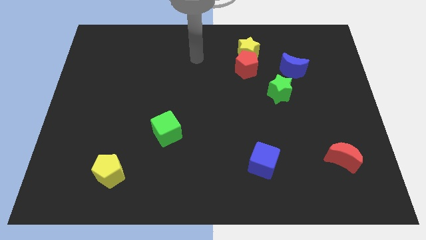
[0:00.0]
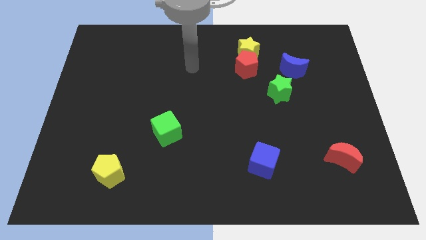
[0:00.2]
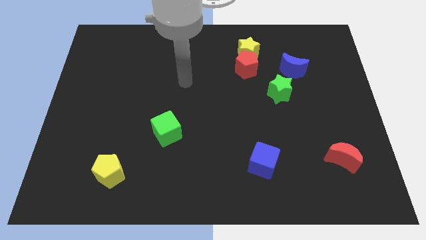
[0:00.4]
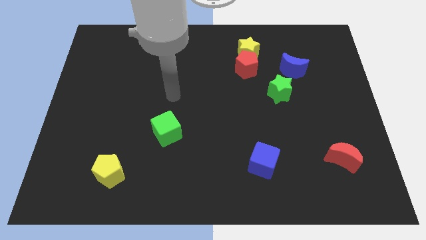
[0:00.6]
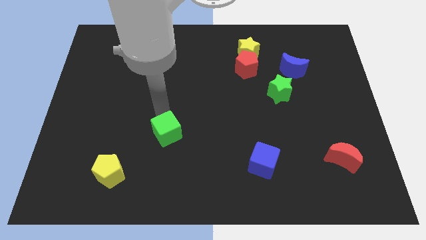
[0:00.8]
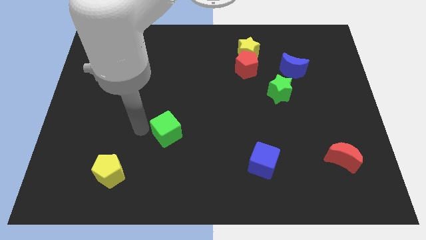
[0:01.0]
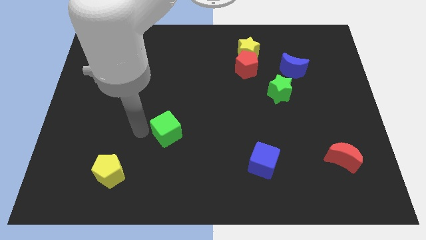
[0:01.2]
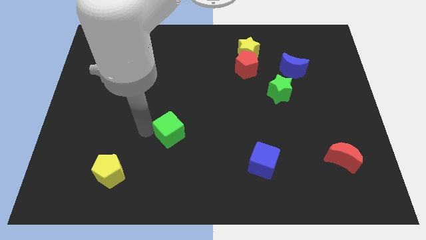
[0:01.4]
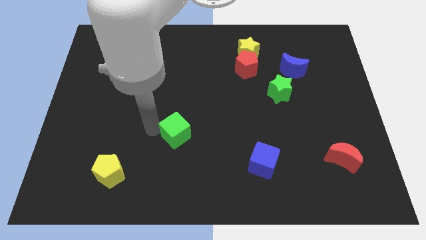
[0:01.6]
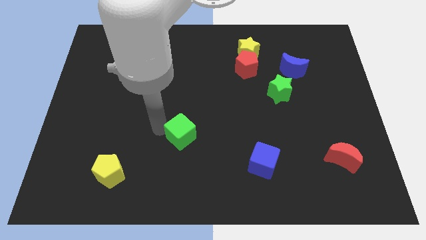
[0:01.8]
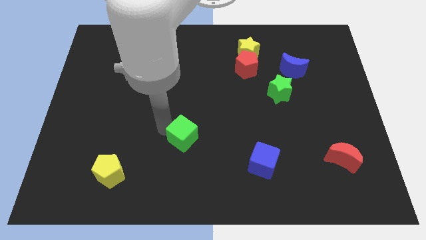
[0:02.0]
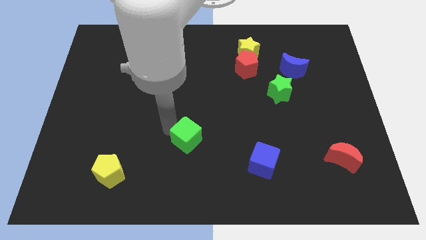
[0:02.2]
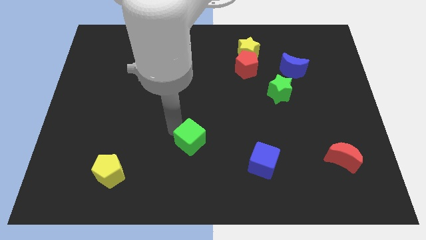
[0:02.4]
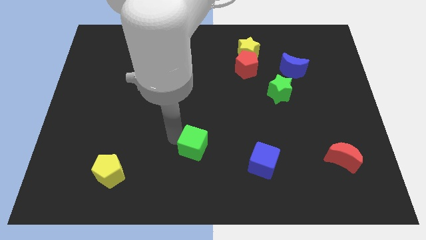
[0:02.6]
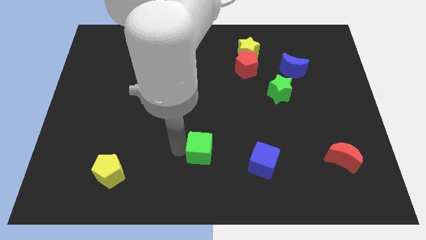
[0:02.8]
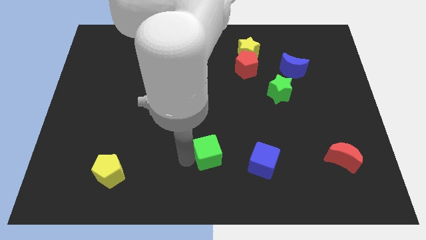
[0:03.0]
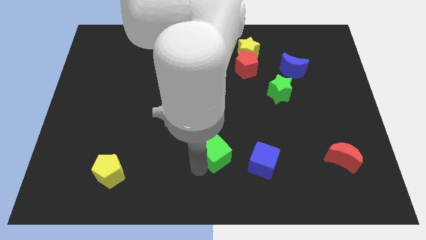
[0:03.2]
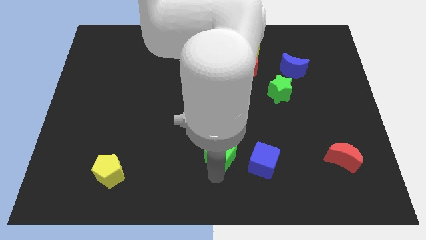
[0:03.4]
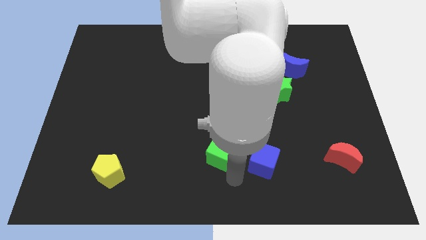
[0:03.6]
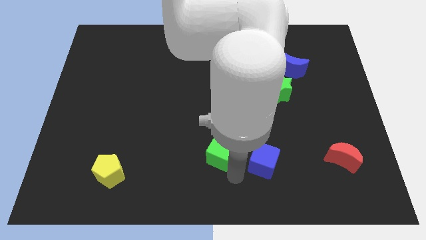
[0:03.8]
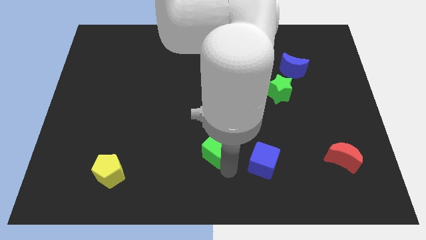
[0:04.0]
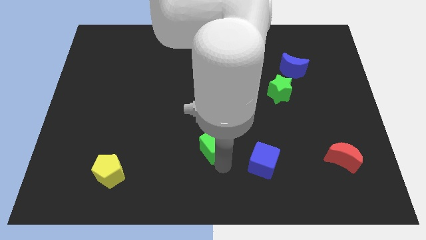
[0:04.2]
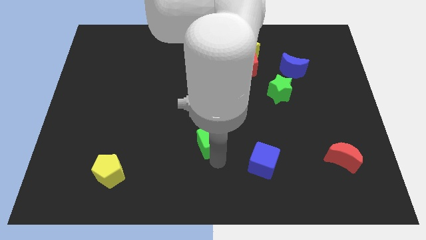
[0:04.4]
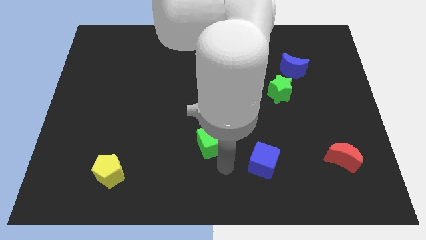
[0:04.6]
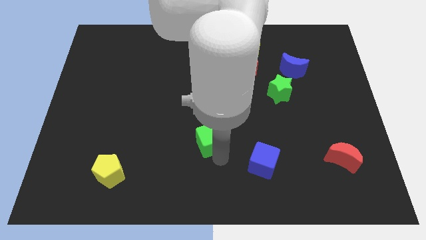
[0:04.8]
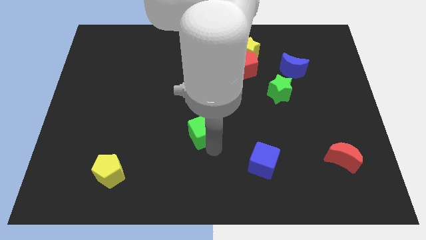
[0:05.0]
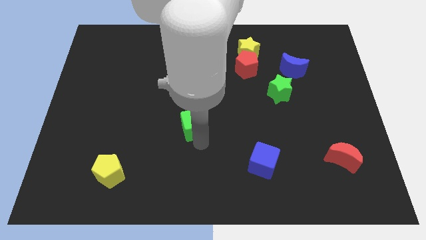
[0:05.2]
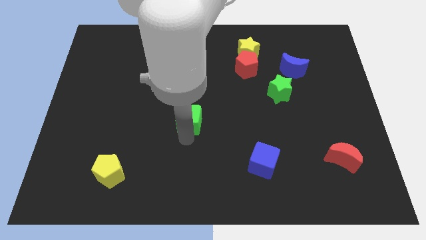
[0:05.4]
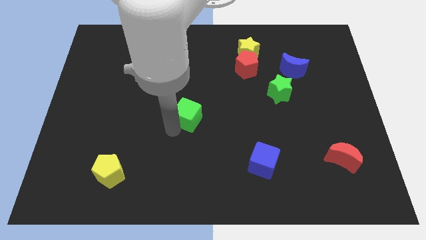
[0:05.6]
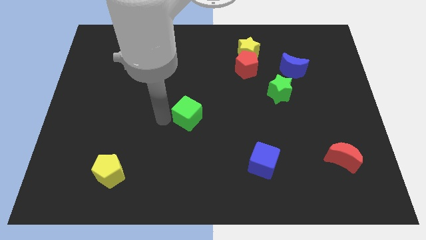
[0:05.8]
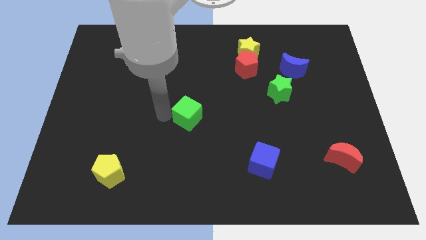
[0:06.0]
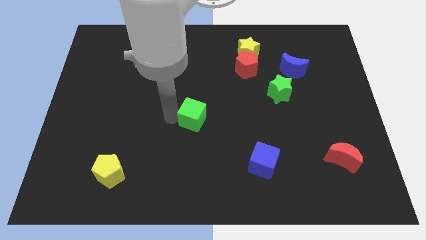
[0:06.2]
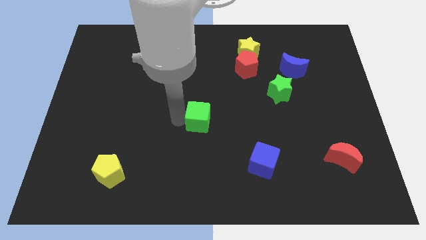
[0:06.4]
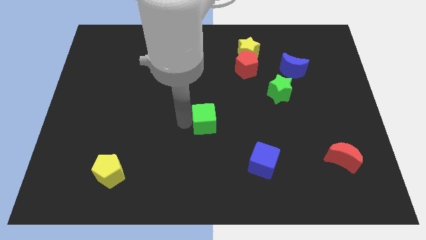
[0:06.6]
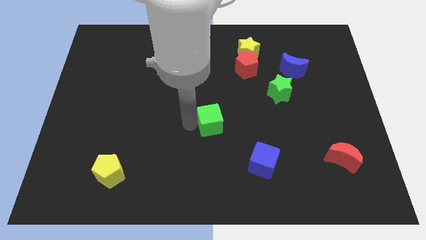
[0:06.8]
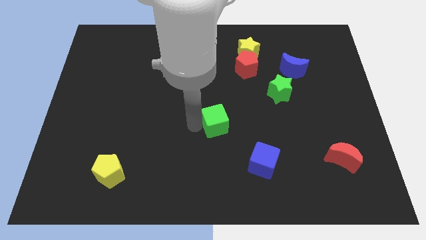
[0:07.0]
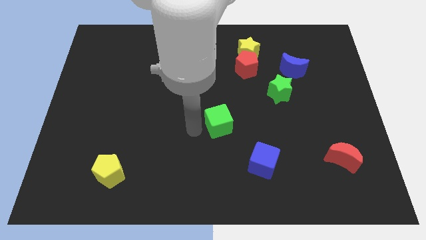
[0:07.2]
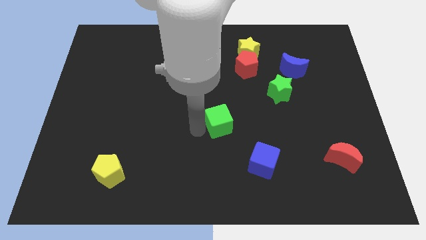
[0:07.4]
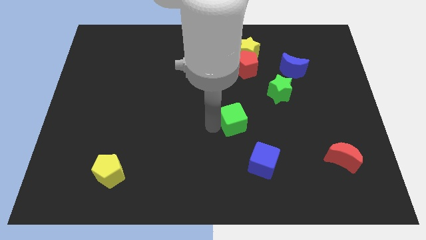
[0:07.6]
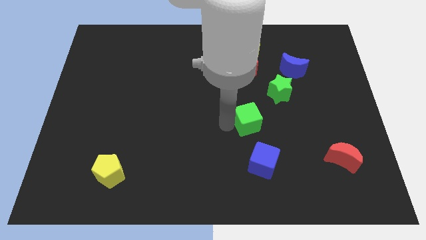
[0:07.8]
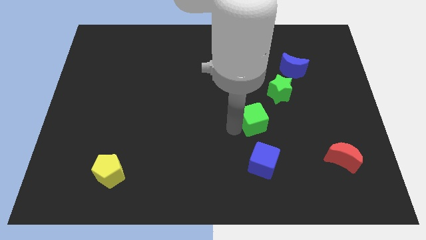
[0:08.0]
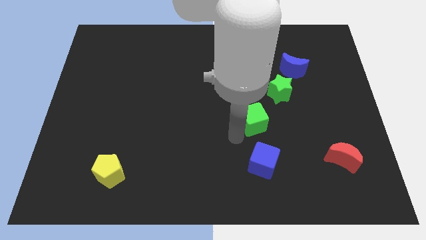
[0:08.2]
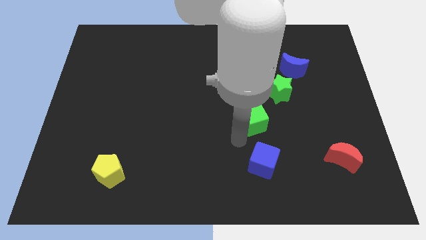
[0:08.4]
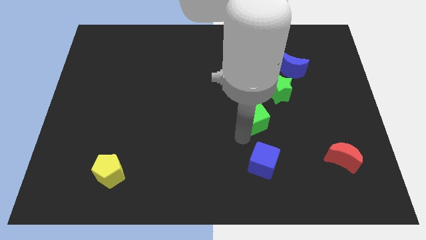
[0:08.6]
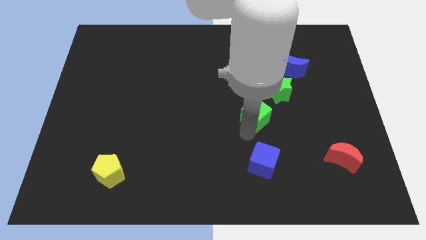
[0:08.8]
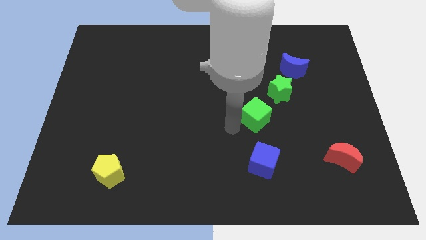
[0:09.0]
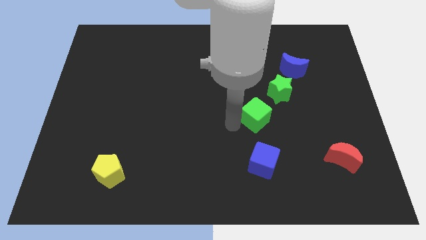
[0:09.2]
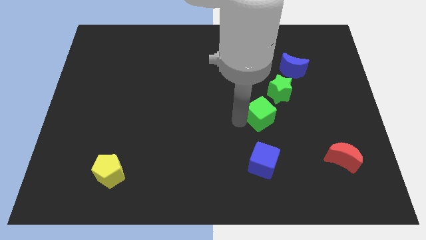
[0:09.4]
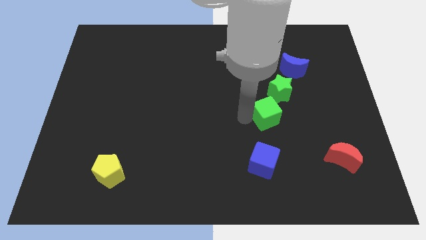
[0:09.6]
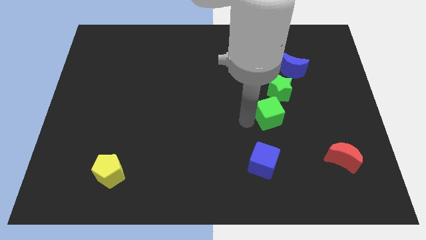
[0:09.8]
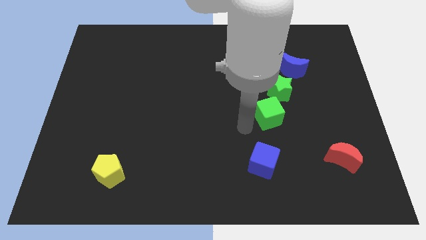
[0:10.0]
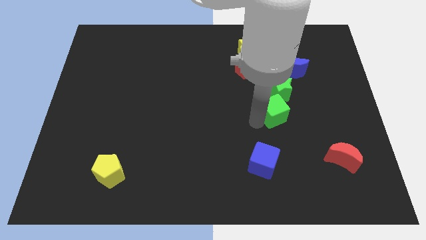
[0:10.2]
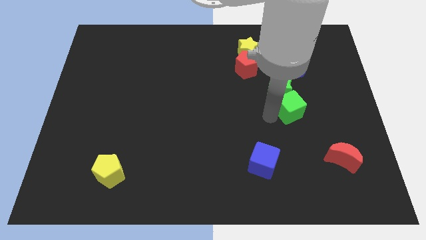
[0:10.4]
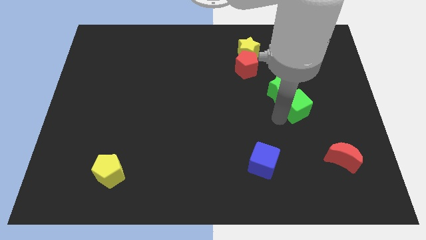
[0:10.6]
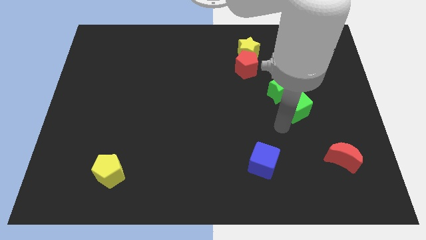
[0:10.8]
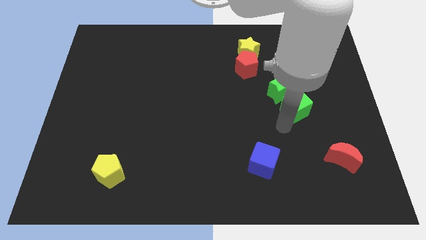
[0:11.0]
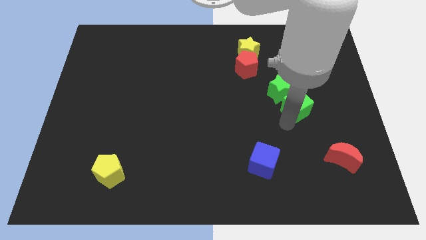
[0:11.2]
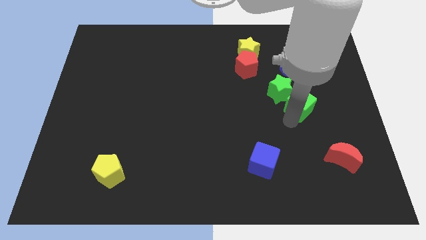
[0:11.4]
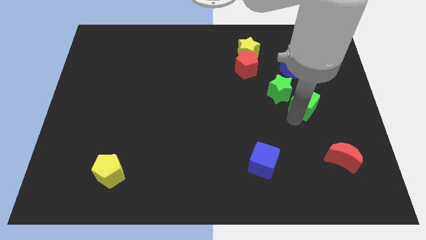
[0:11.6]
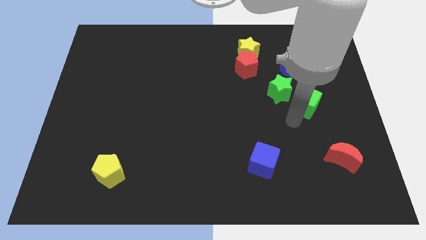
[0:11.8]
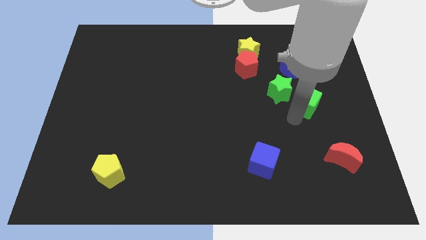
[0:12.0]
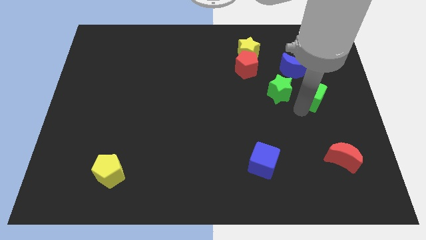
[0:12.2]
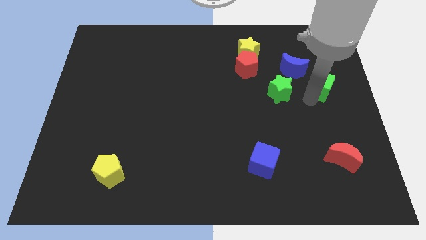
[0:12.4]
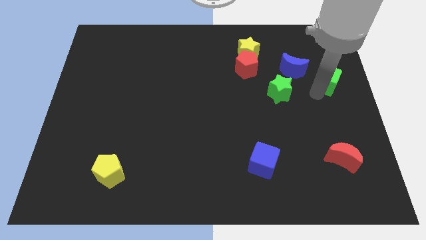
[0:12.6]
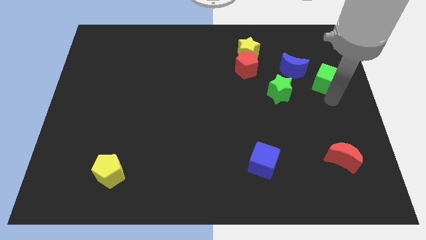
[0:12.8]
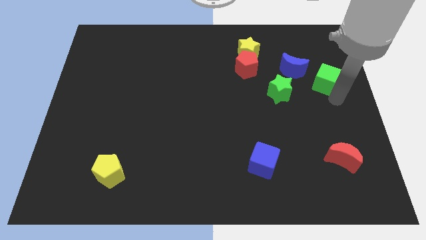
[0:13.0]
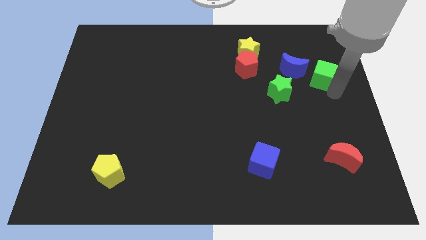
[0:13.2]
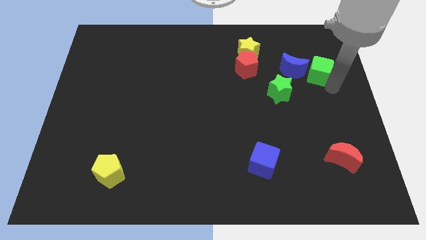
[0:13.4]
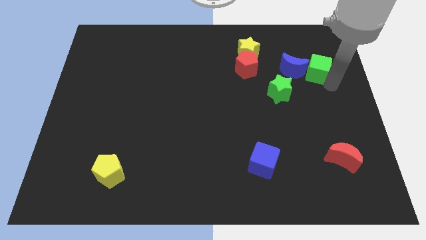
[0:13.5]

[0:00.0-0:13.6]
put the green cube diagonally up and to the right of the blue moon
